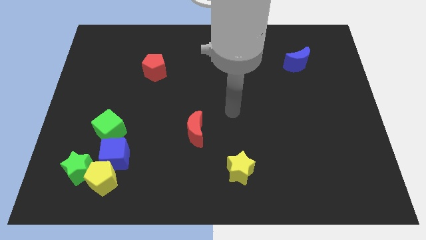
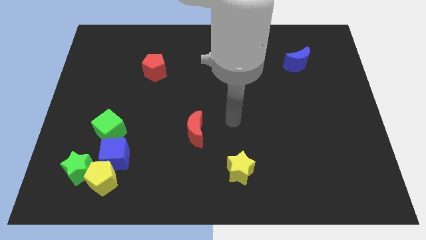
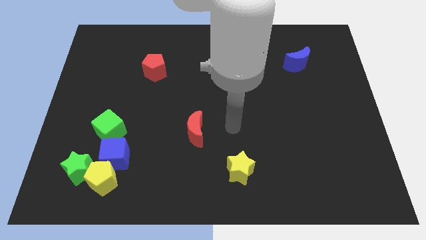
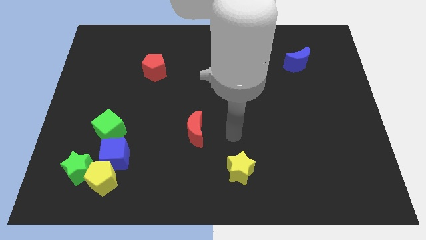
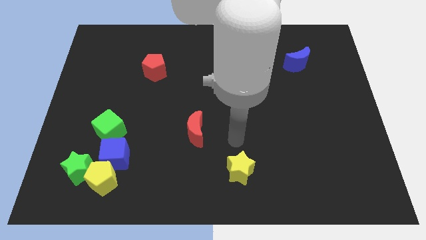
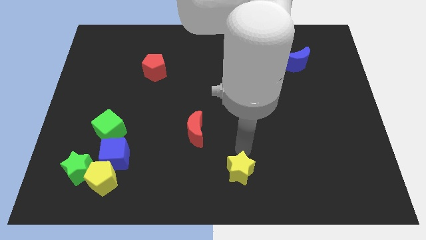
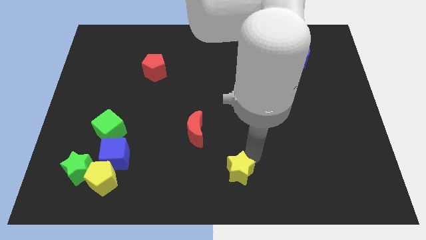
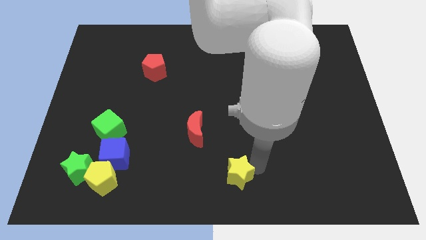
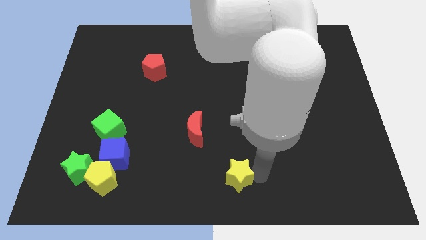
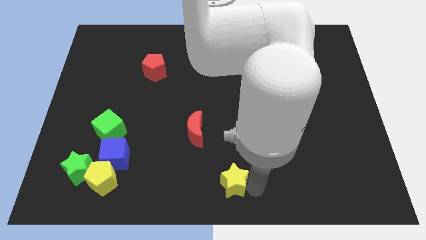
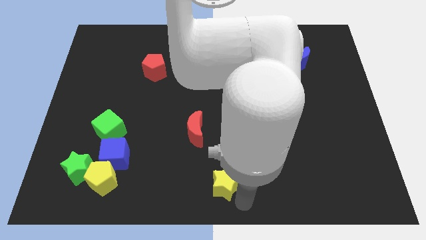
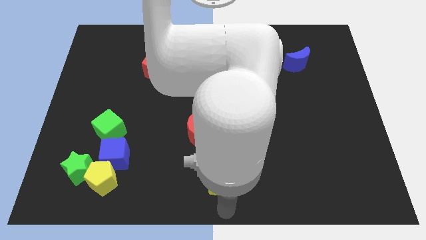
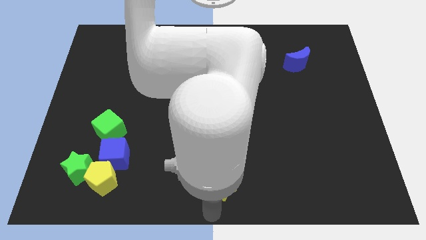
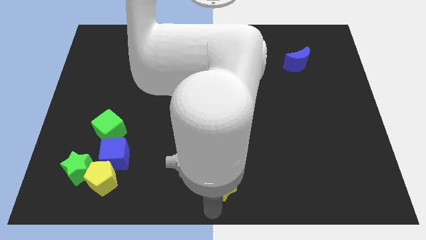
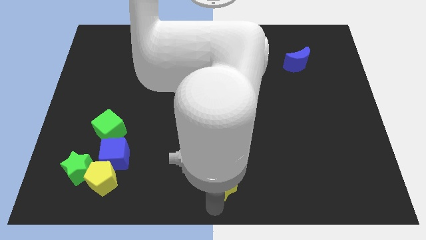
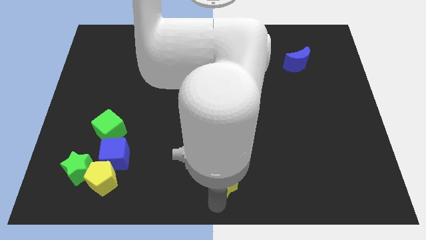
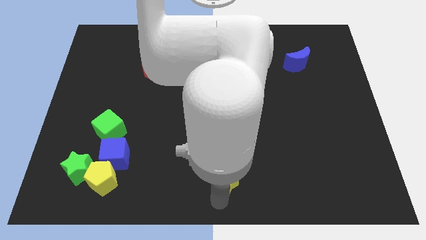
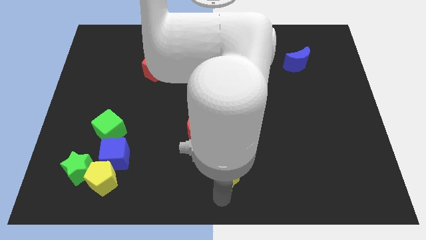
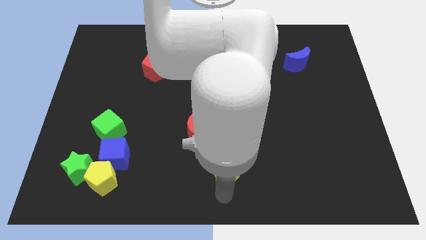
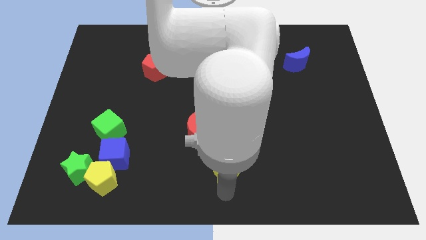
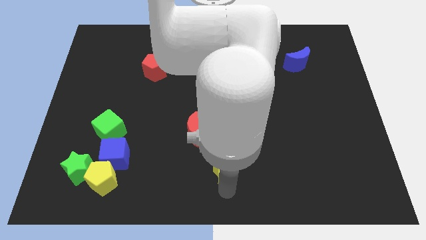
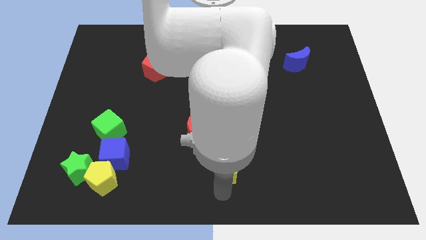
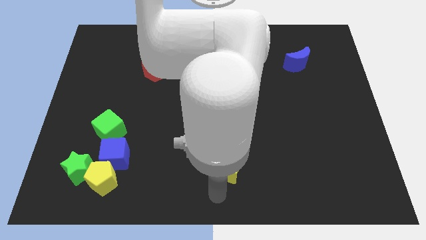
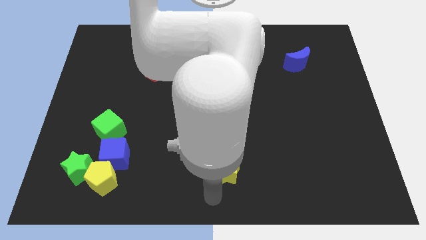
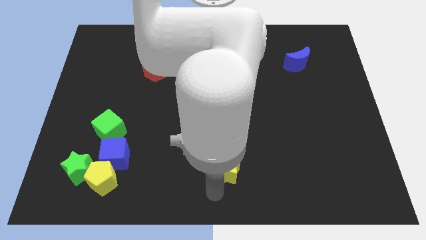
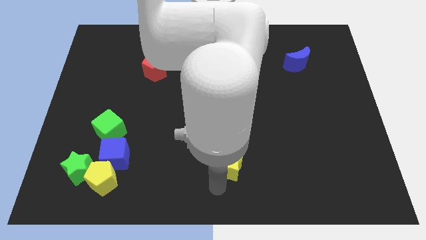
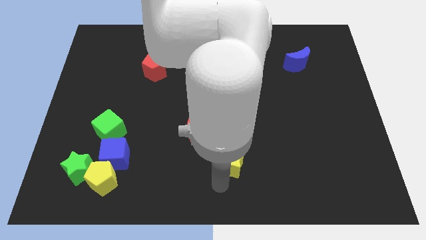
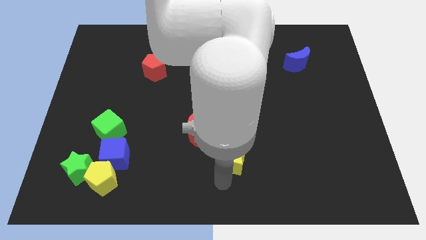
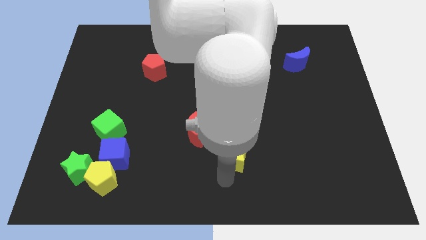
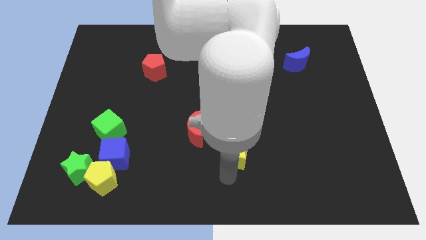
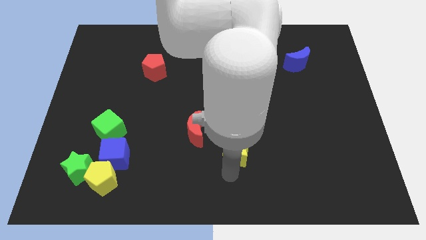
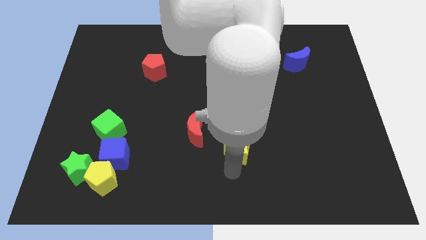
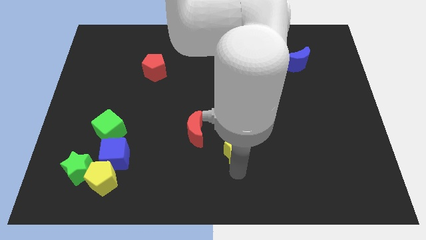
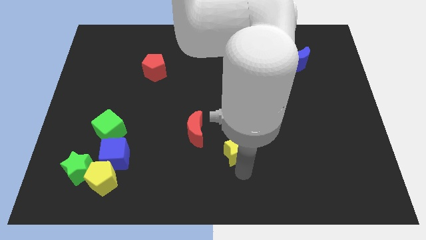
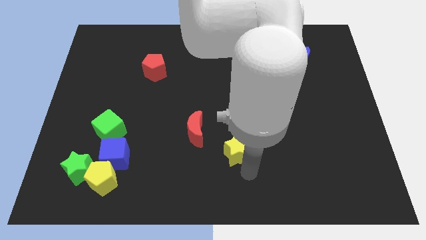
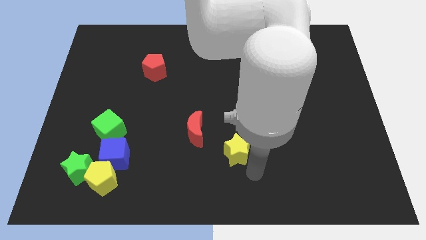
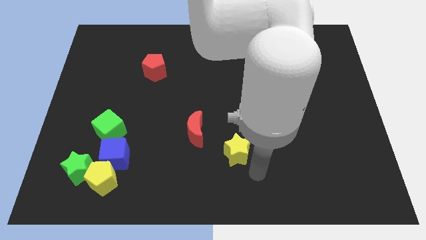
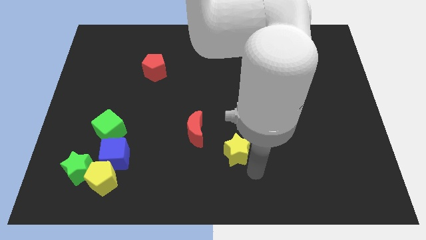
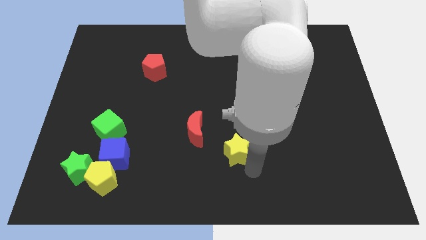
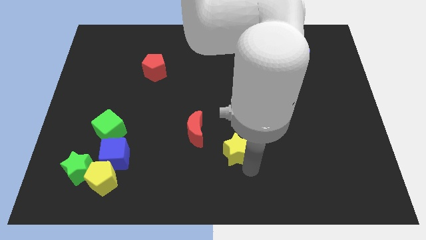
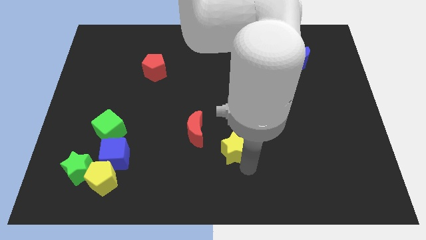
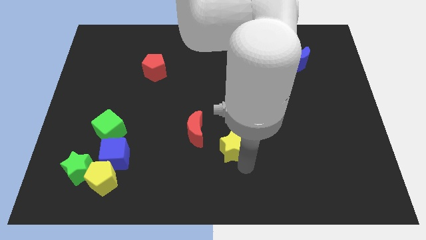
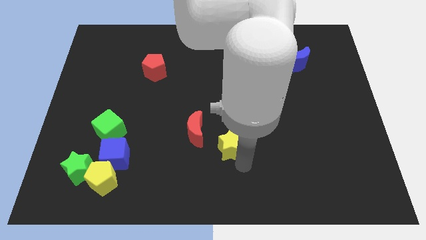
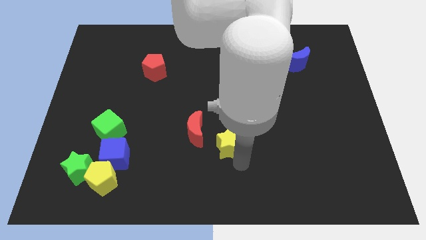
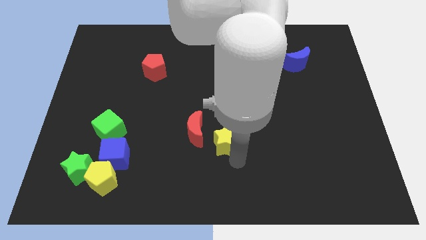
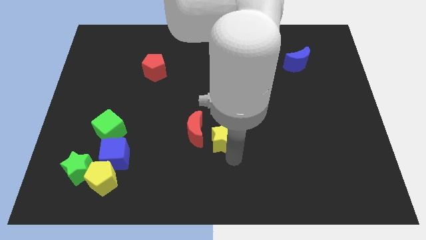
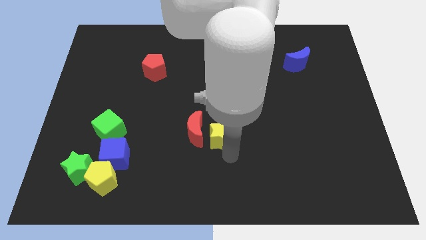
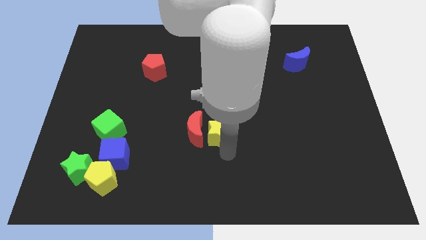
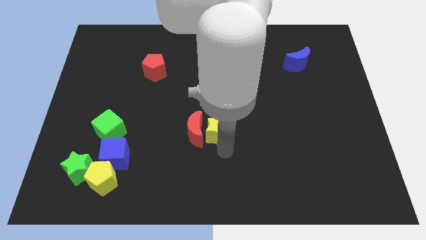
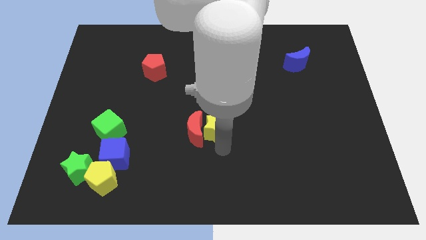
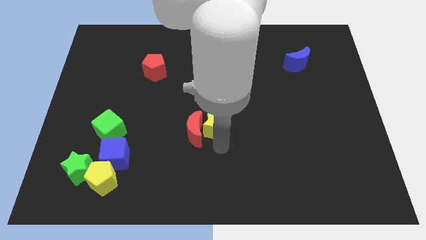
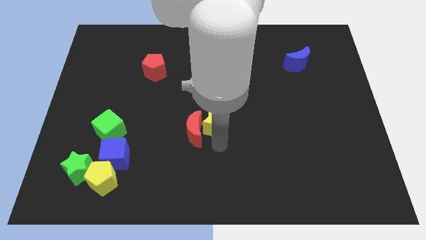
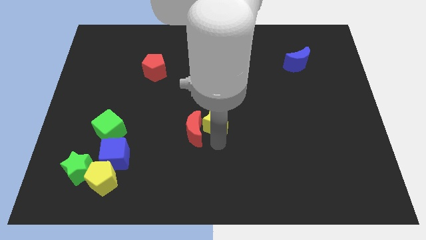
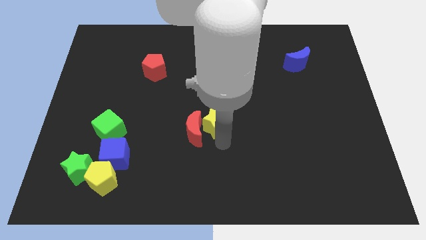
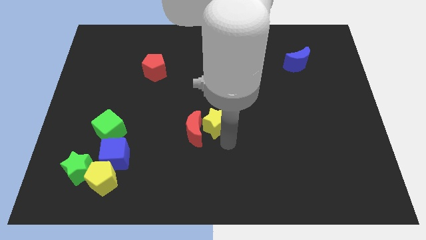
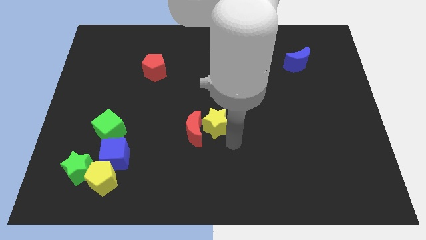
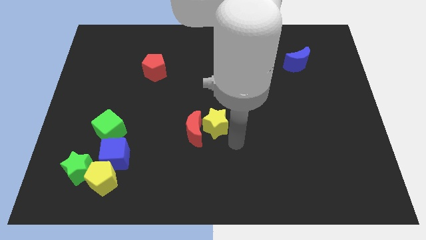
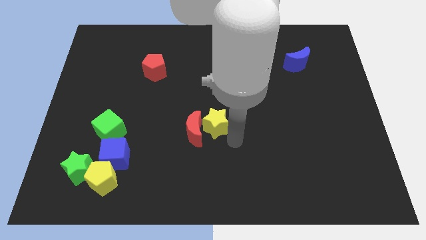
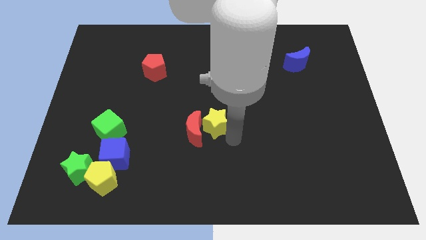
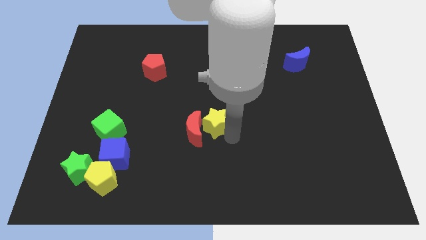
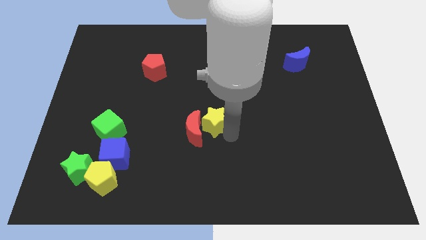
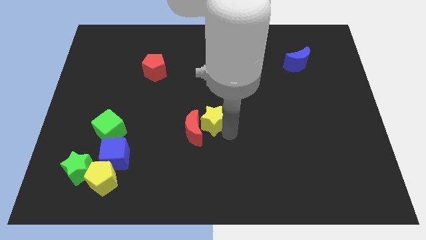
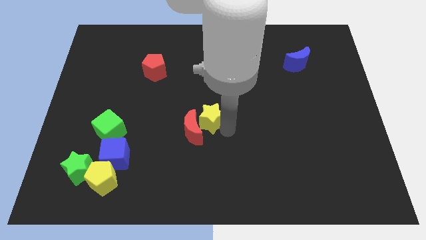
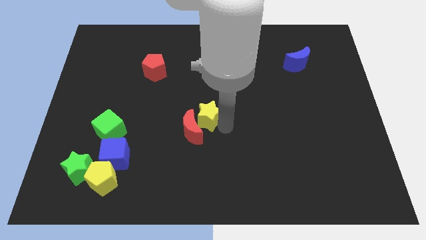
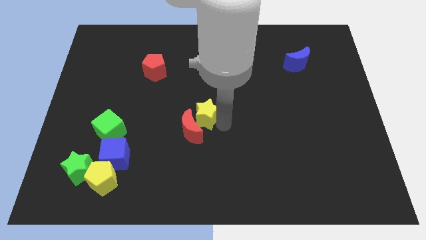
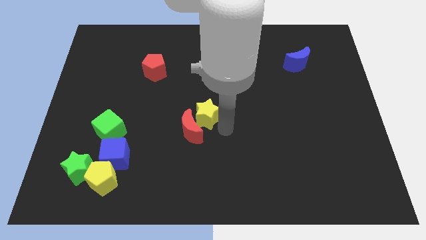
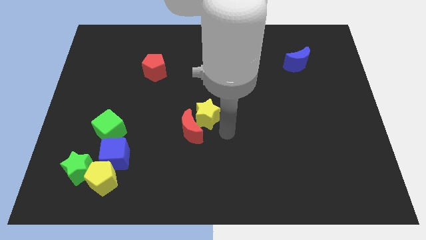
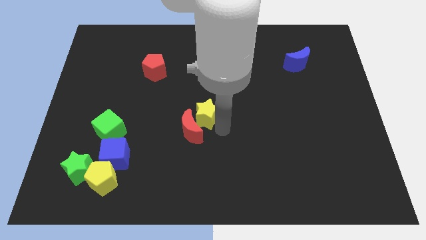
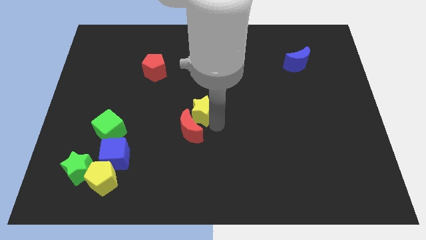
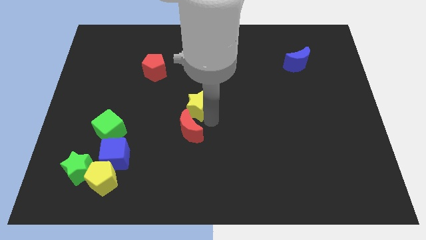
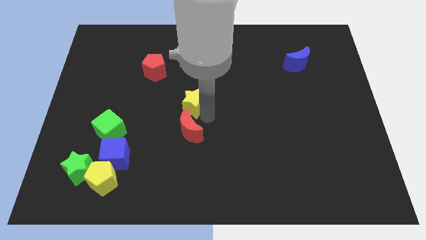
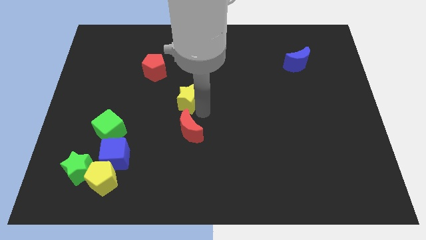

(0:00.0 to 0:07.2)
slide the yellow star upwards and then to the left

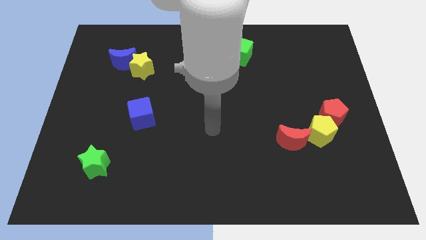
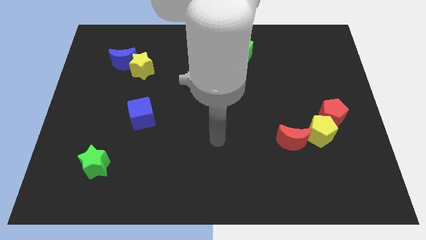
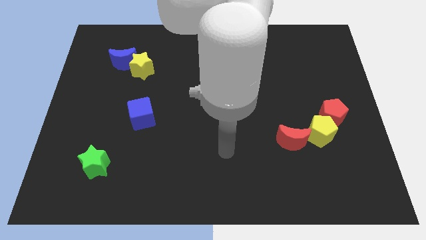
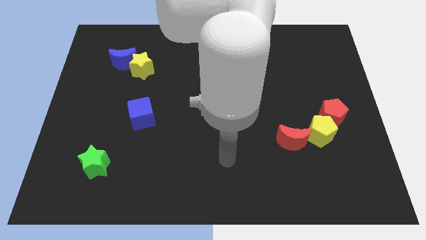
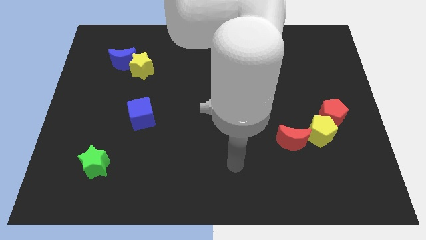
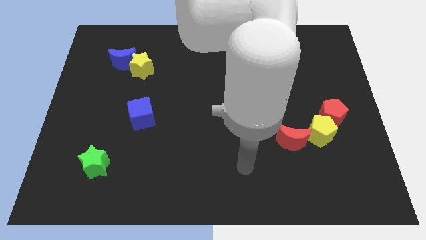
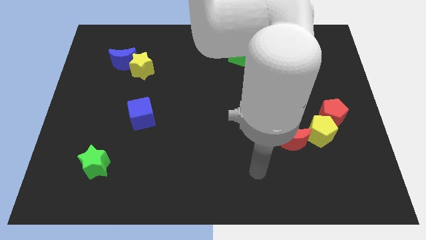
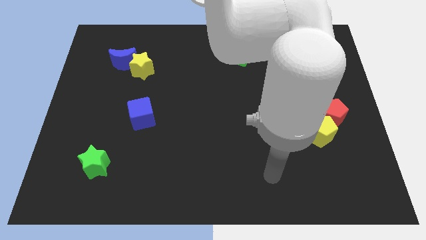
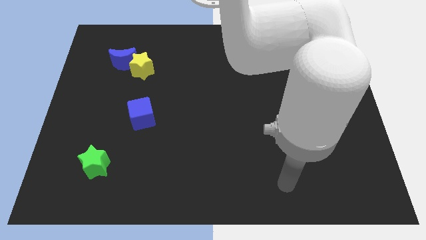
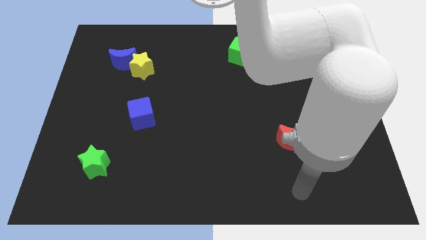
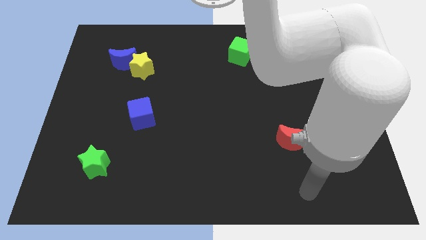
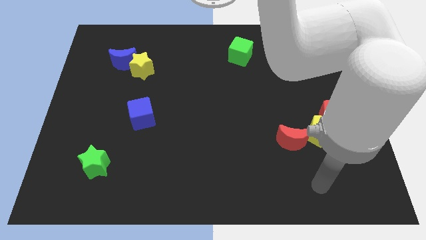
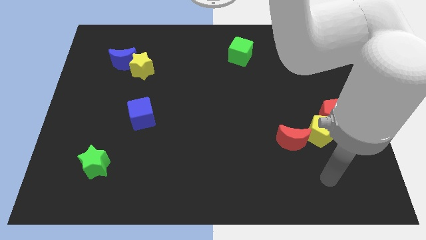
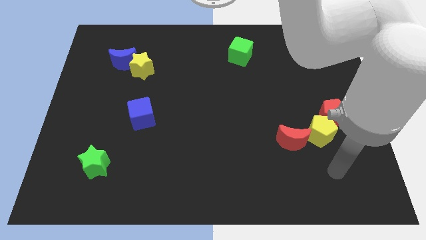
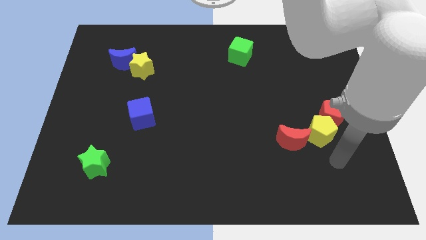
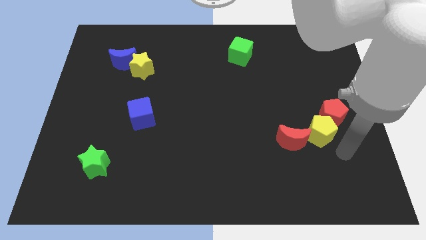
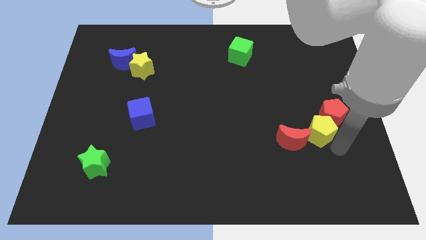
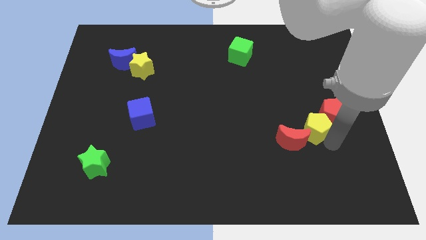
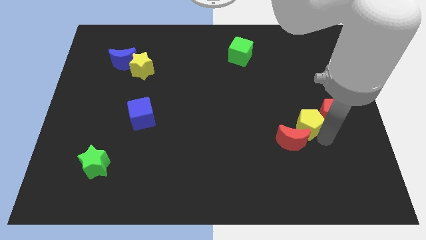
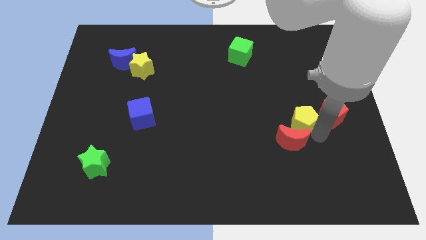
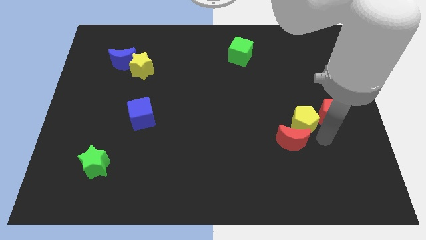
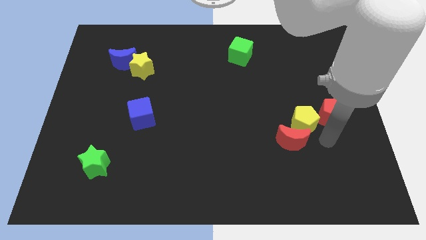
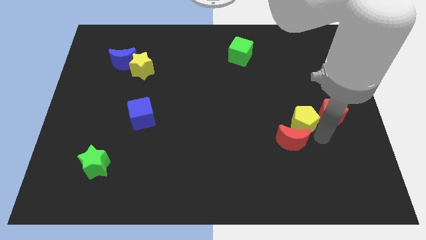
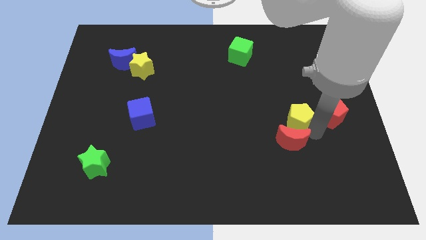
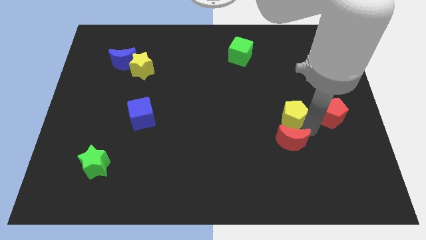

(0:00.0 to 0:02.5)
push the yellow pentagon a little upwards and left
